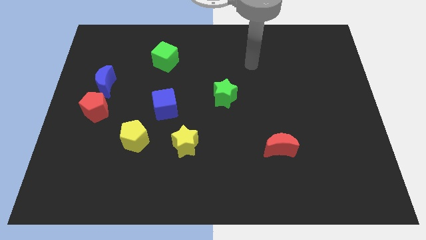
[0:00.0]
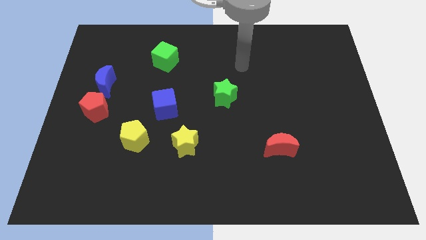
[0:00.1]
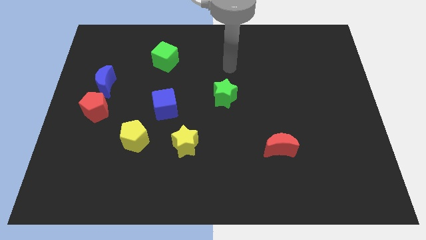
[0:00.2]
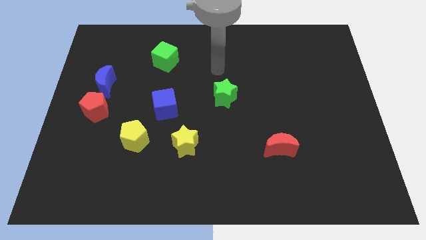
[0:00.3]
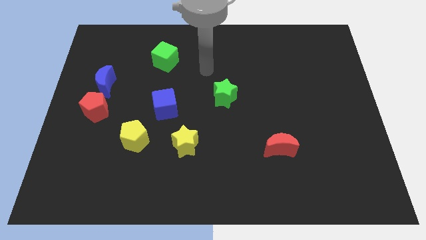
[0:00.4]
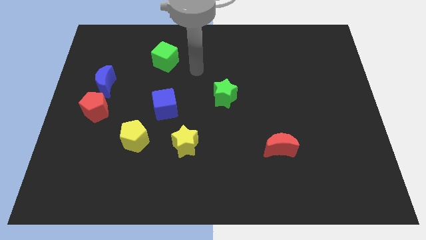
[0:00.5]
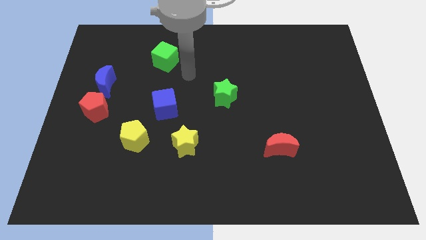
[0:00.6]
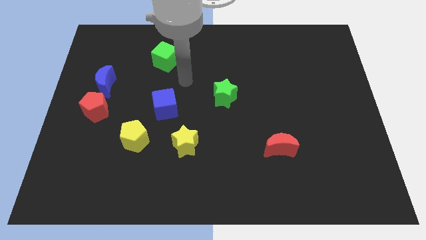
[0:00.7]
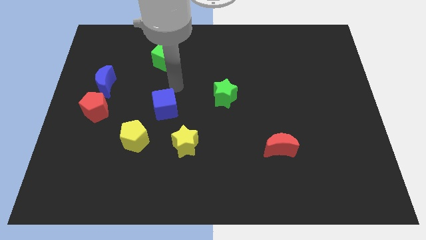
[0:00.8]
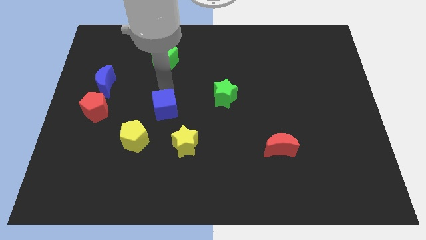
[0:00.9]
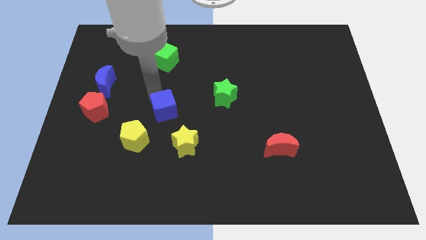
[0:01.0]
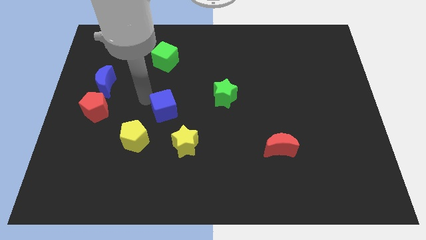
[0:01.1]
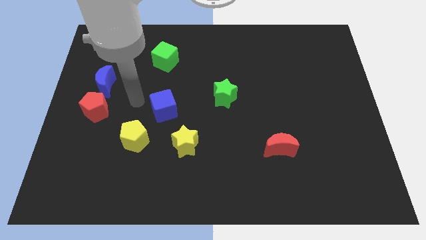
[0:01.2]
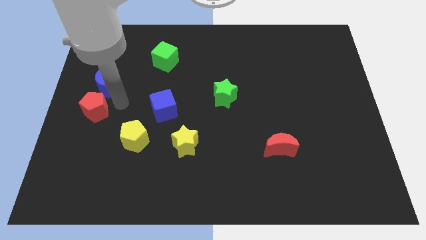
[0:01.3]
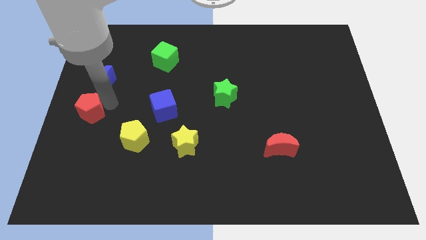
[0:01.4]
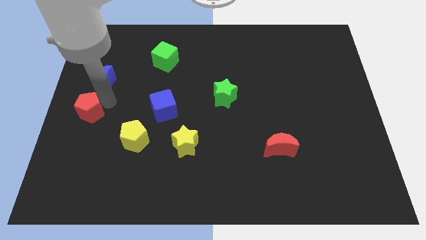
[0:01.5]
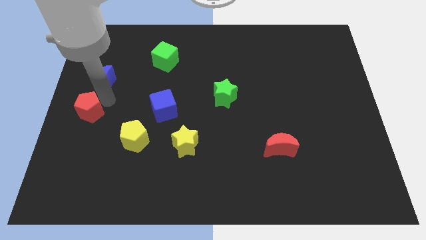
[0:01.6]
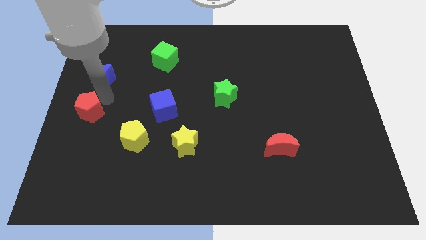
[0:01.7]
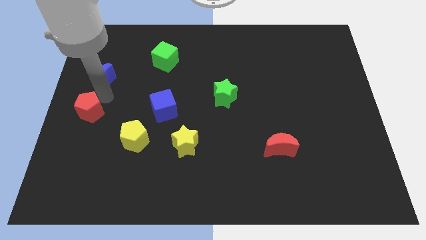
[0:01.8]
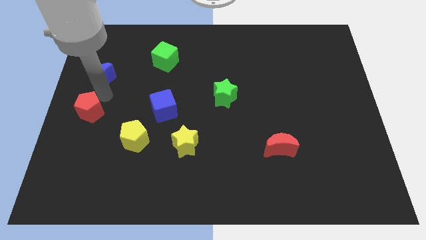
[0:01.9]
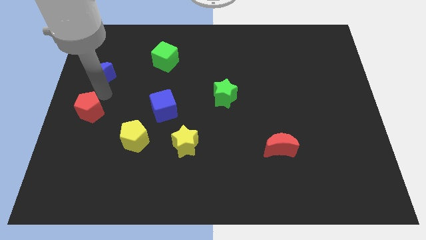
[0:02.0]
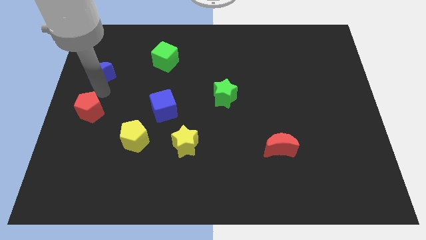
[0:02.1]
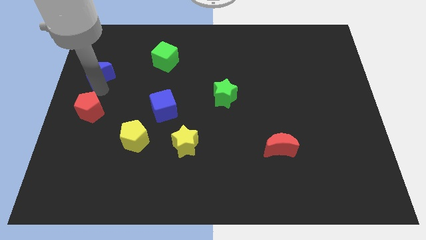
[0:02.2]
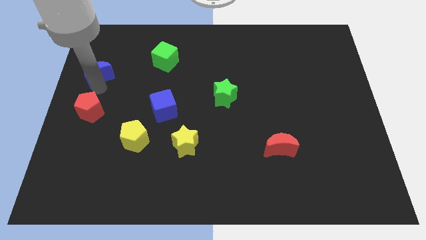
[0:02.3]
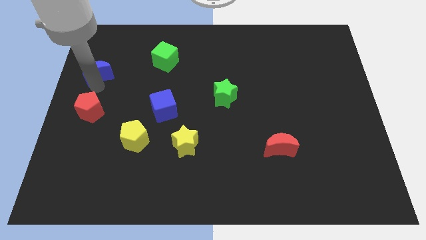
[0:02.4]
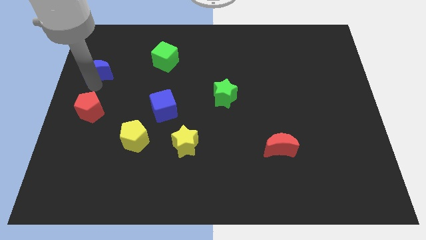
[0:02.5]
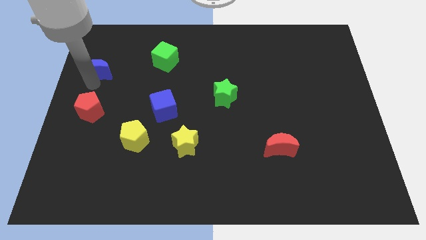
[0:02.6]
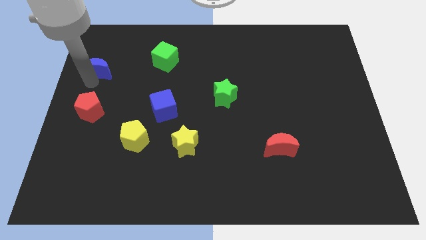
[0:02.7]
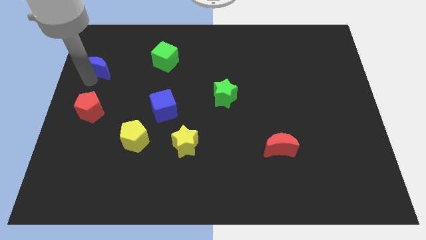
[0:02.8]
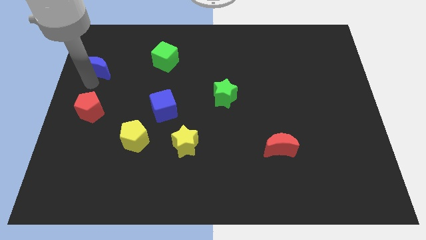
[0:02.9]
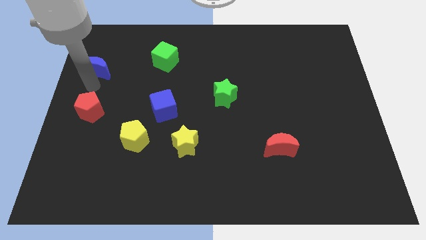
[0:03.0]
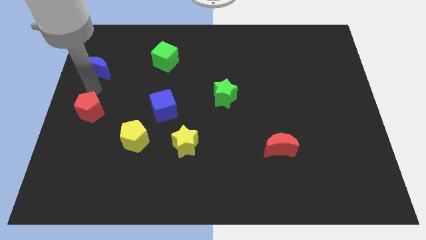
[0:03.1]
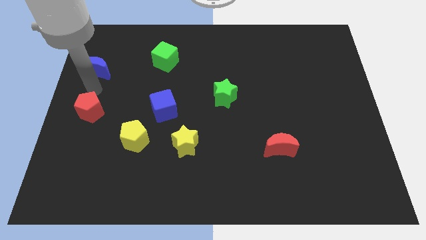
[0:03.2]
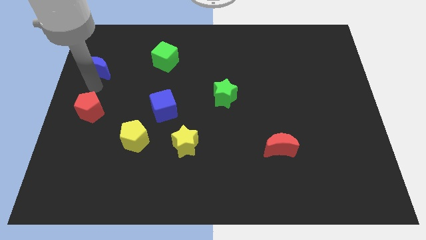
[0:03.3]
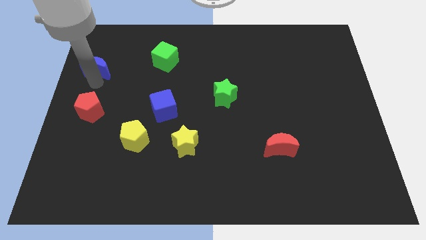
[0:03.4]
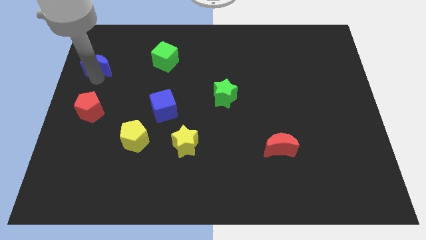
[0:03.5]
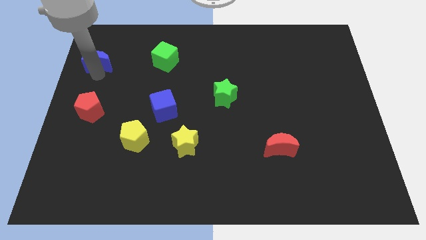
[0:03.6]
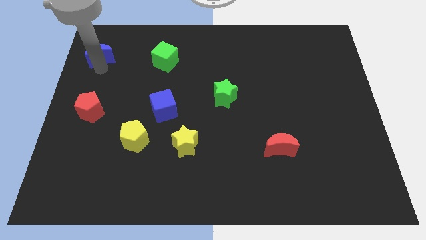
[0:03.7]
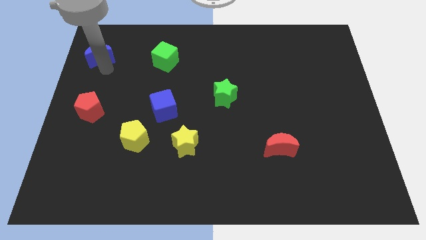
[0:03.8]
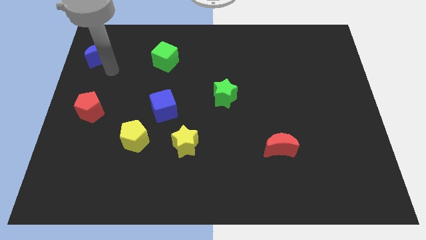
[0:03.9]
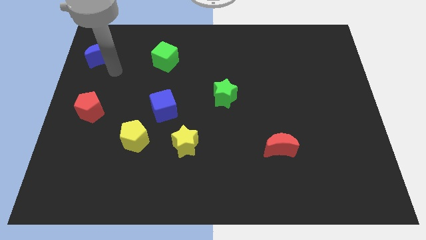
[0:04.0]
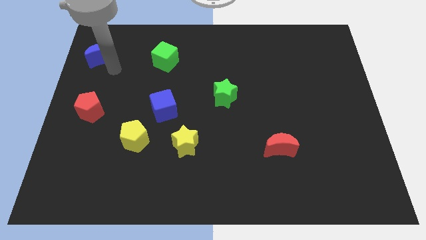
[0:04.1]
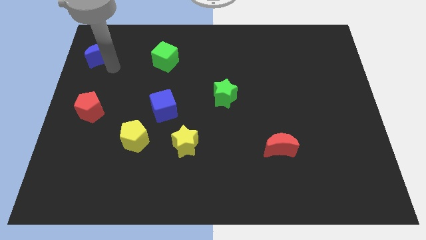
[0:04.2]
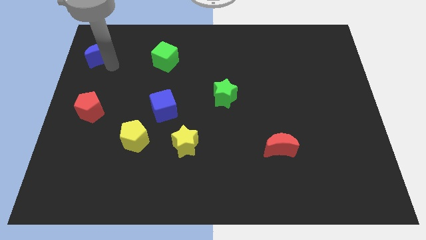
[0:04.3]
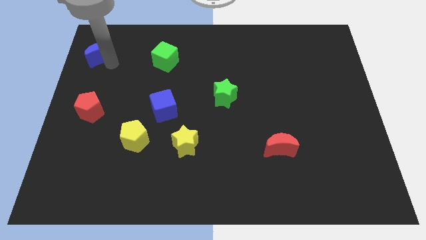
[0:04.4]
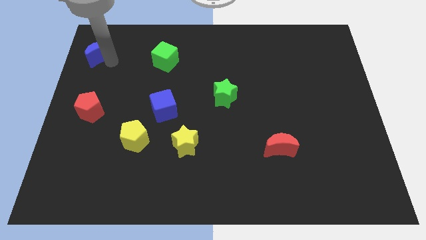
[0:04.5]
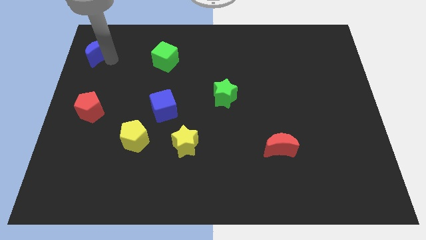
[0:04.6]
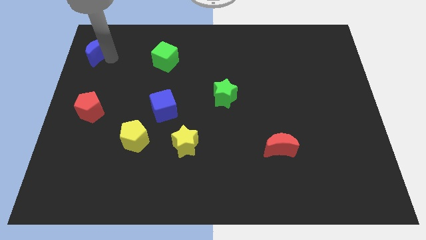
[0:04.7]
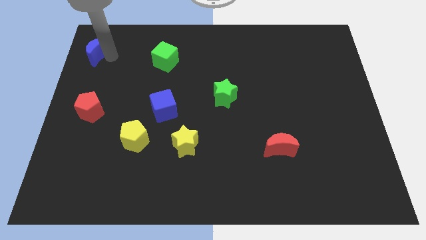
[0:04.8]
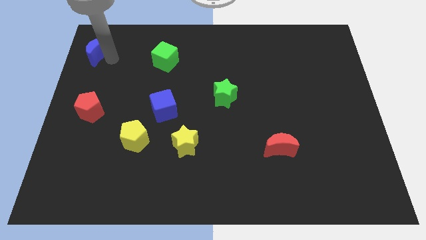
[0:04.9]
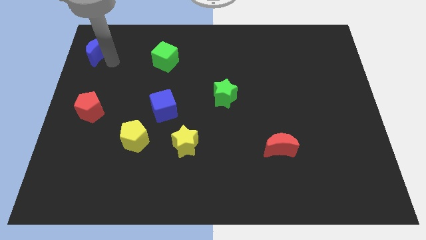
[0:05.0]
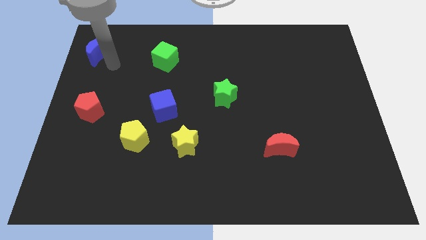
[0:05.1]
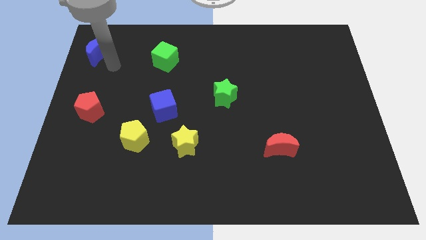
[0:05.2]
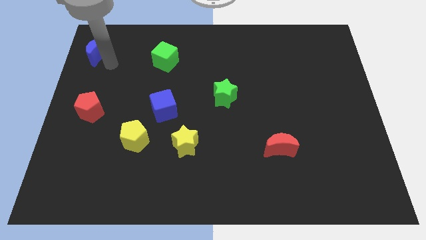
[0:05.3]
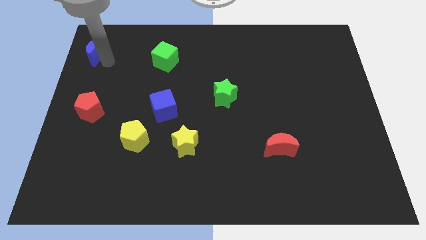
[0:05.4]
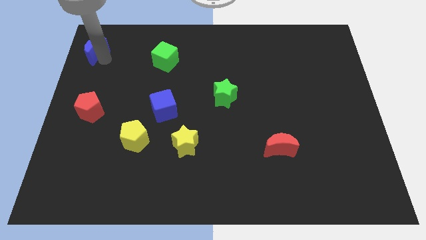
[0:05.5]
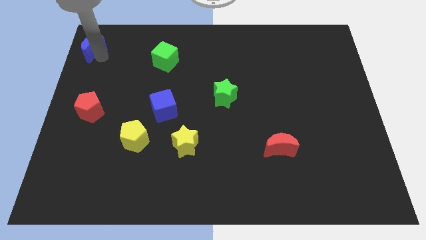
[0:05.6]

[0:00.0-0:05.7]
put the blue moon to the top left of the board

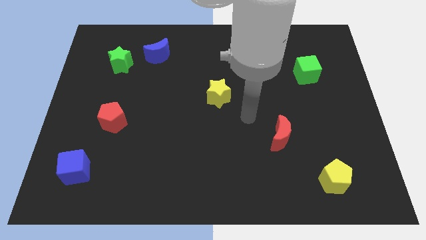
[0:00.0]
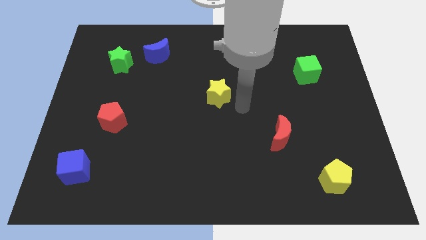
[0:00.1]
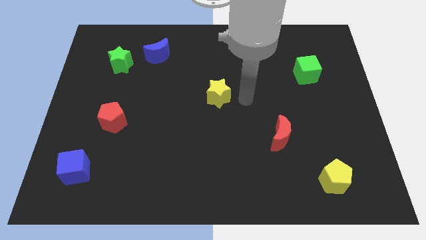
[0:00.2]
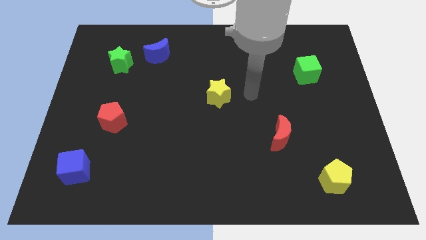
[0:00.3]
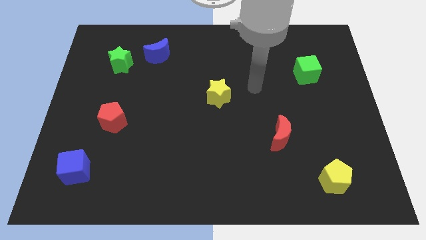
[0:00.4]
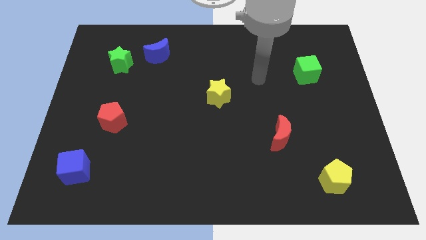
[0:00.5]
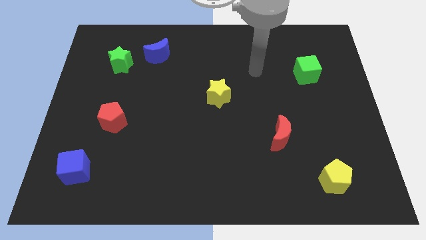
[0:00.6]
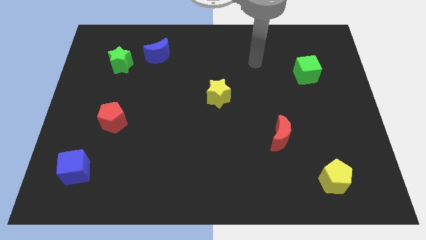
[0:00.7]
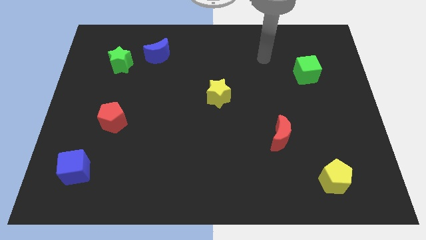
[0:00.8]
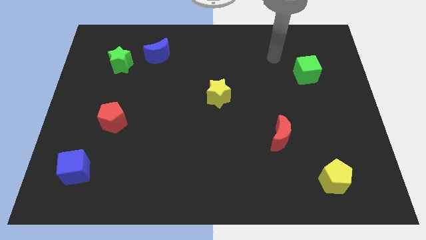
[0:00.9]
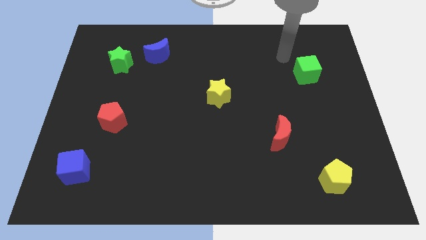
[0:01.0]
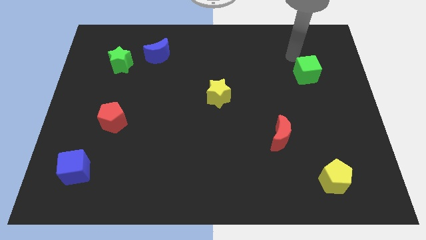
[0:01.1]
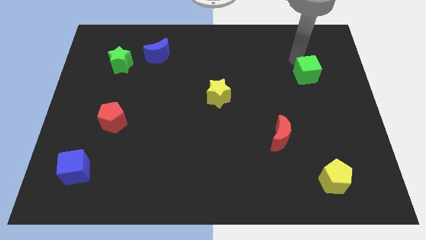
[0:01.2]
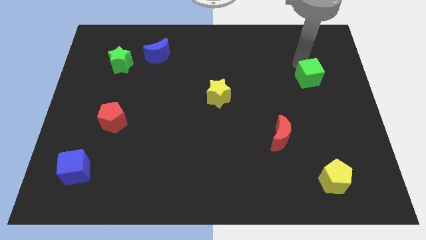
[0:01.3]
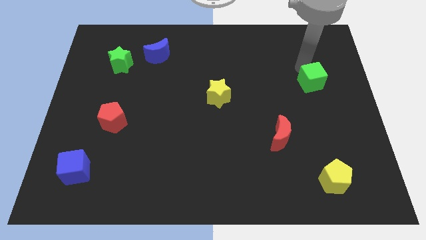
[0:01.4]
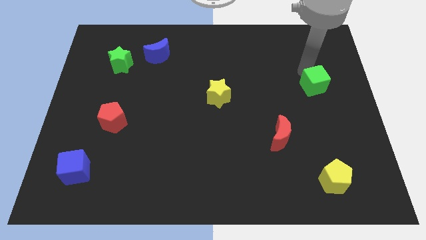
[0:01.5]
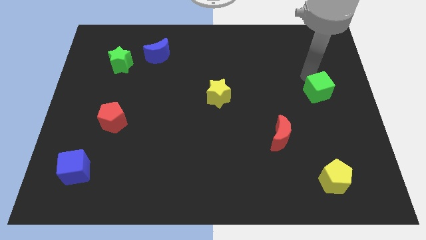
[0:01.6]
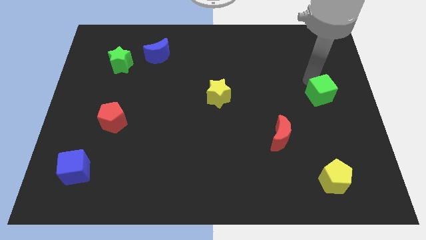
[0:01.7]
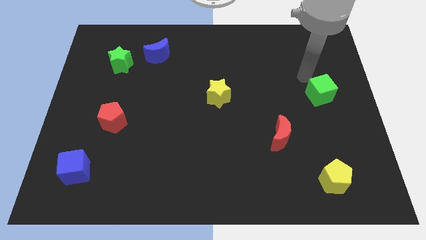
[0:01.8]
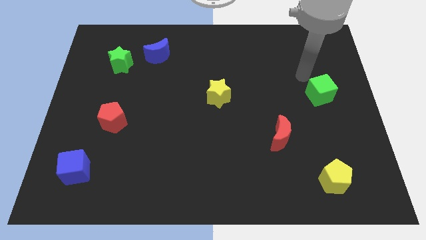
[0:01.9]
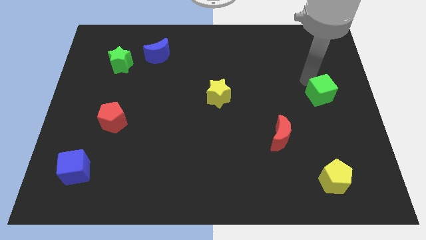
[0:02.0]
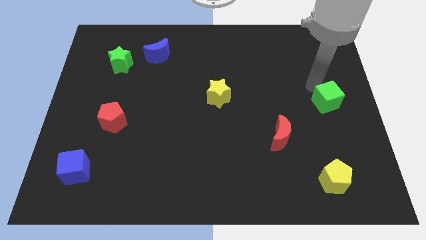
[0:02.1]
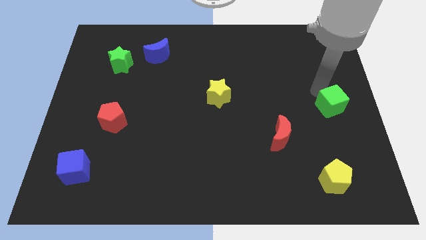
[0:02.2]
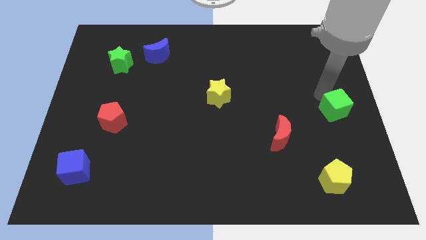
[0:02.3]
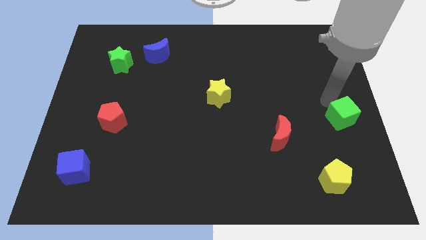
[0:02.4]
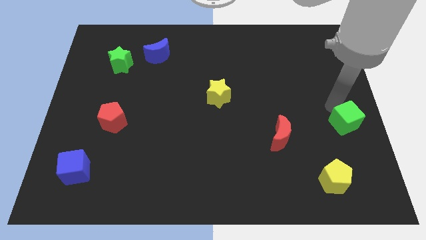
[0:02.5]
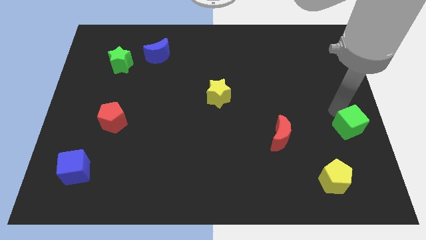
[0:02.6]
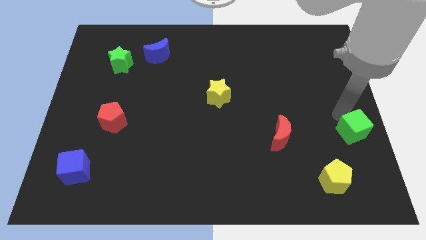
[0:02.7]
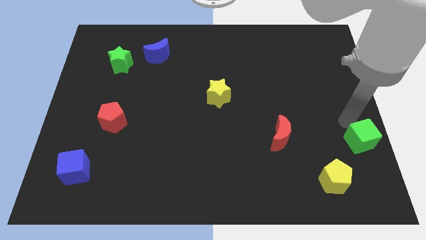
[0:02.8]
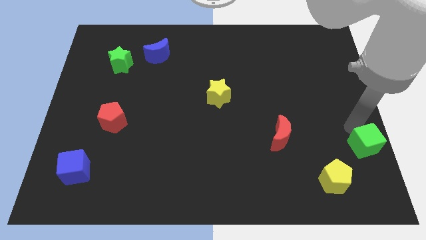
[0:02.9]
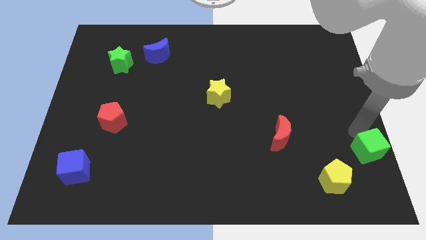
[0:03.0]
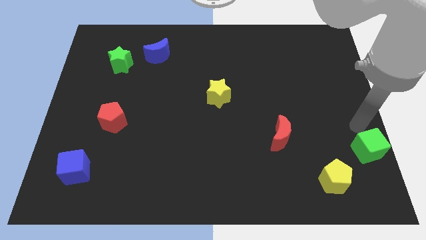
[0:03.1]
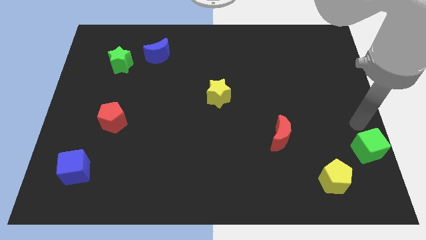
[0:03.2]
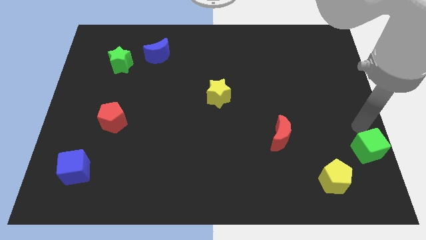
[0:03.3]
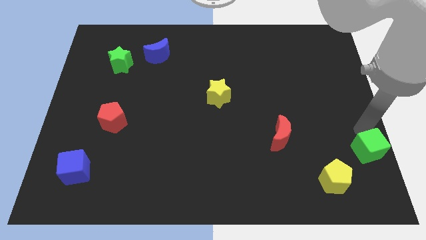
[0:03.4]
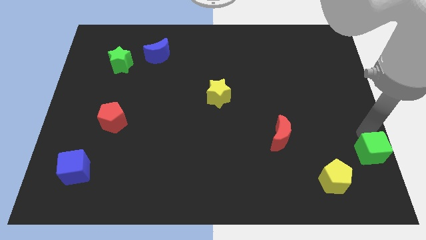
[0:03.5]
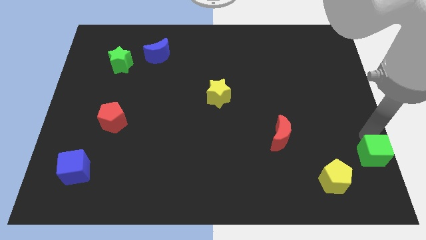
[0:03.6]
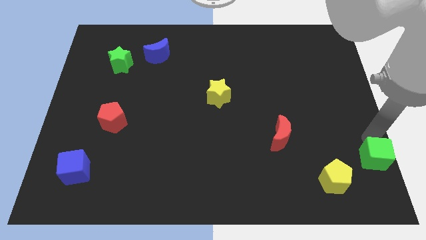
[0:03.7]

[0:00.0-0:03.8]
slide the green cube to the bottom right of the board
